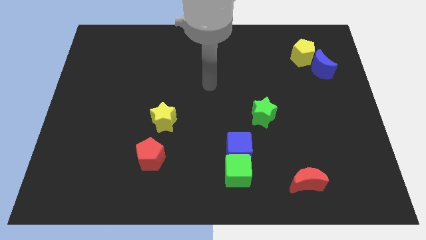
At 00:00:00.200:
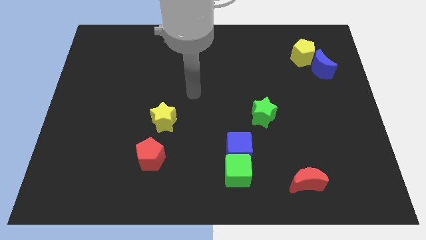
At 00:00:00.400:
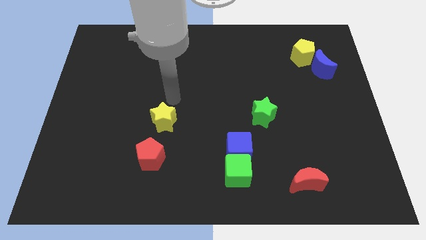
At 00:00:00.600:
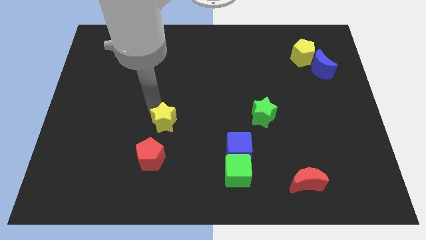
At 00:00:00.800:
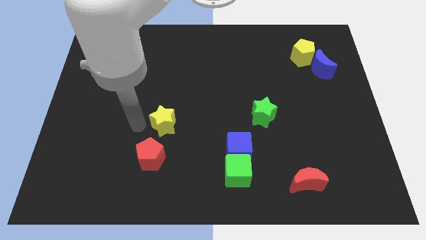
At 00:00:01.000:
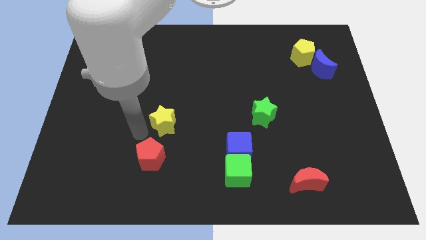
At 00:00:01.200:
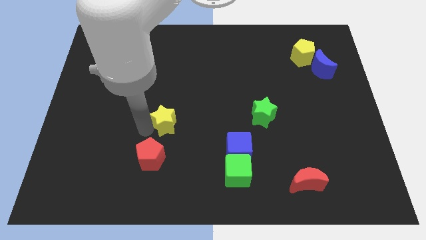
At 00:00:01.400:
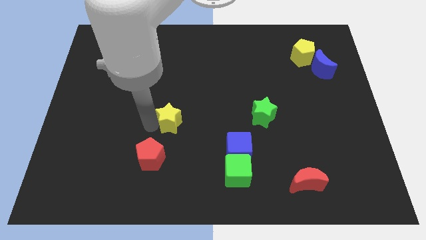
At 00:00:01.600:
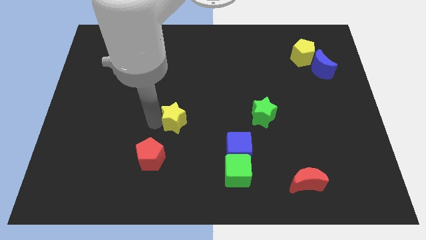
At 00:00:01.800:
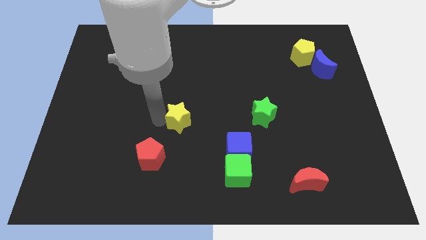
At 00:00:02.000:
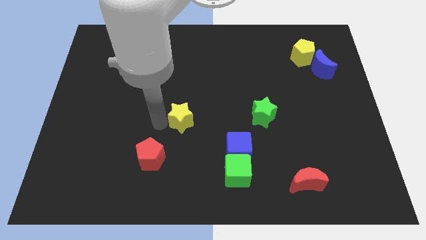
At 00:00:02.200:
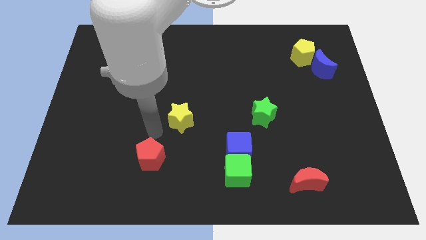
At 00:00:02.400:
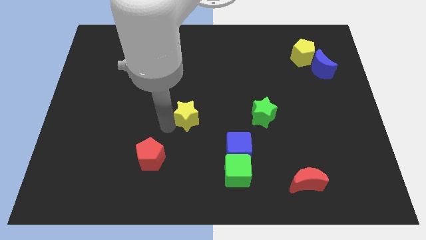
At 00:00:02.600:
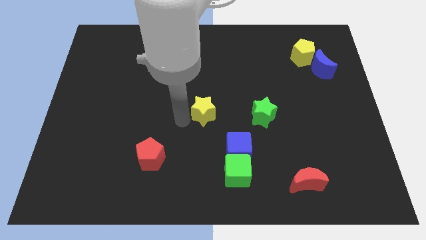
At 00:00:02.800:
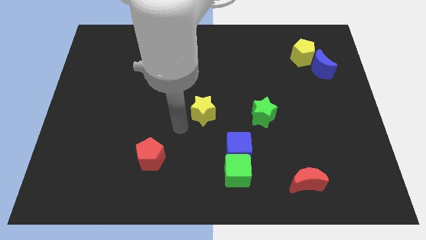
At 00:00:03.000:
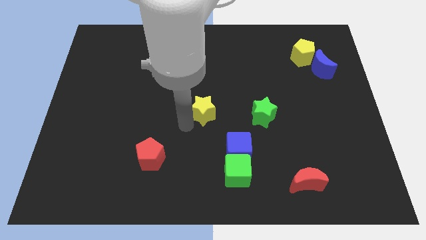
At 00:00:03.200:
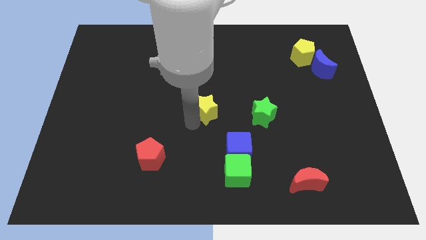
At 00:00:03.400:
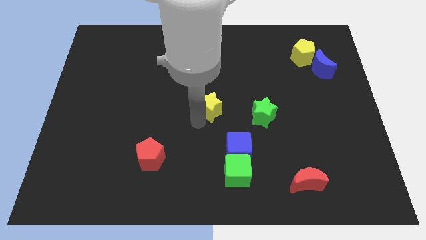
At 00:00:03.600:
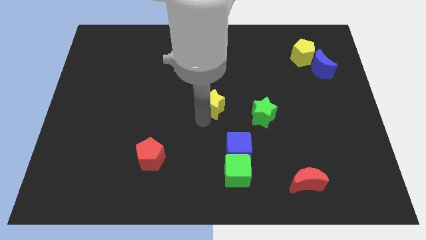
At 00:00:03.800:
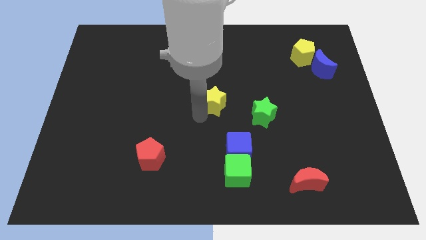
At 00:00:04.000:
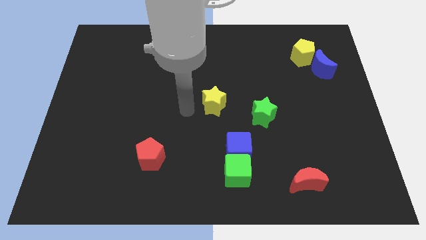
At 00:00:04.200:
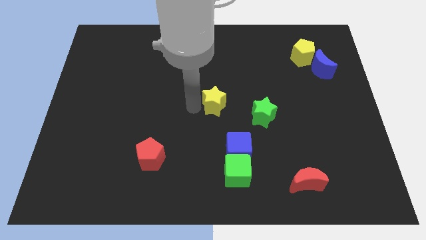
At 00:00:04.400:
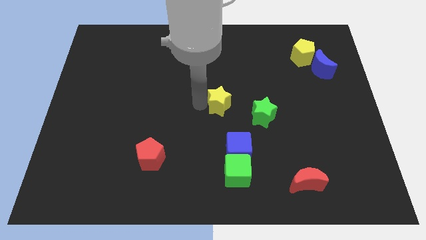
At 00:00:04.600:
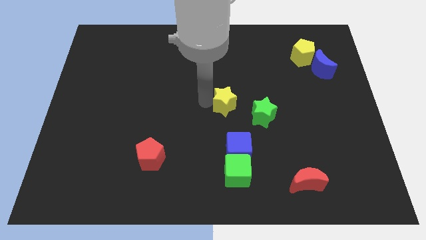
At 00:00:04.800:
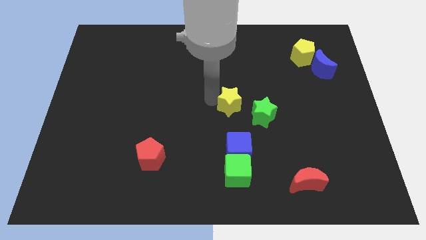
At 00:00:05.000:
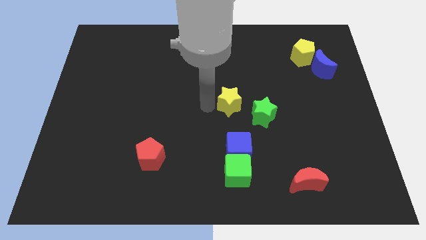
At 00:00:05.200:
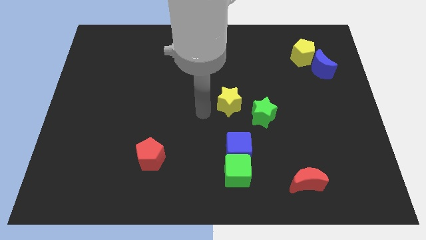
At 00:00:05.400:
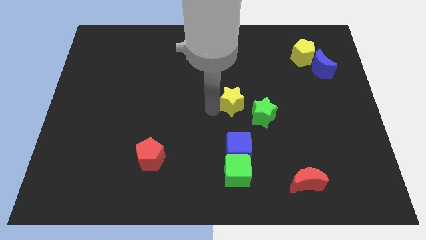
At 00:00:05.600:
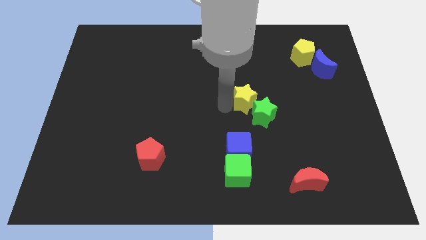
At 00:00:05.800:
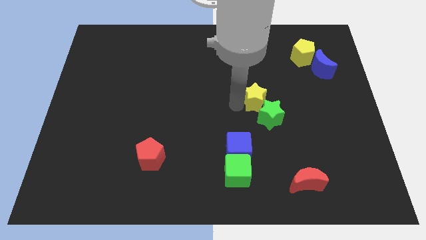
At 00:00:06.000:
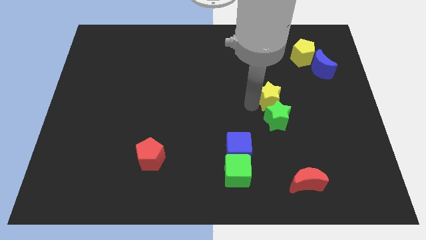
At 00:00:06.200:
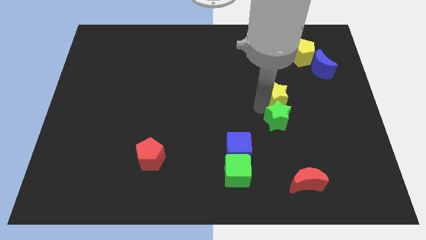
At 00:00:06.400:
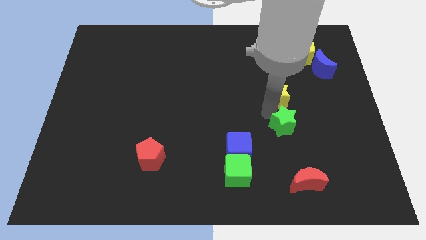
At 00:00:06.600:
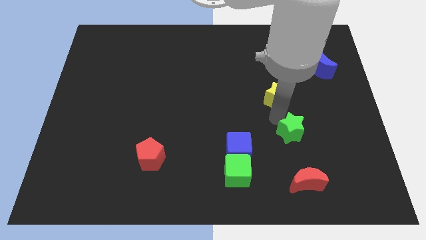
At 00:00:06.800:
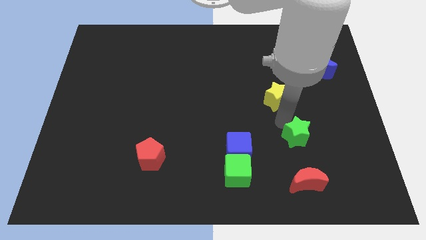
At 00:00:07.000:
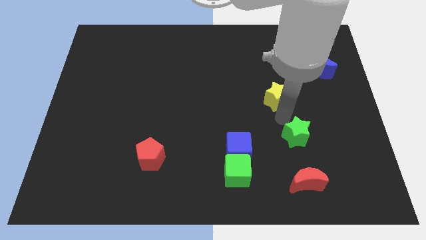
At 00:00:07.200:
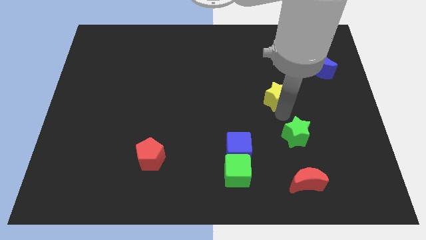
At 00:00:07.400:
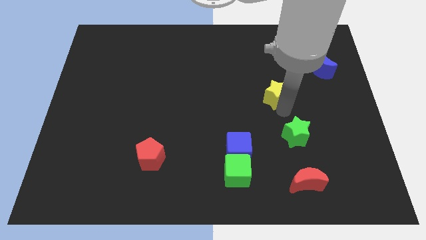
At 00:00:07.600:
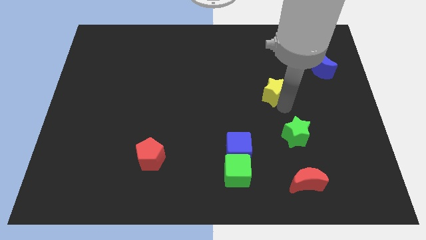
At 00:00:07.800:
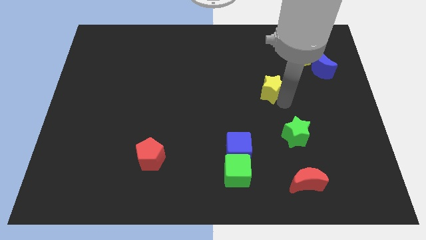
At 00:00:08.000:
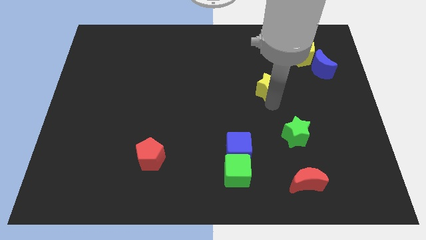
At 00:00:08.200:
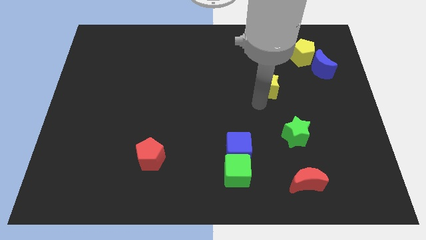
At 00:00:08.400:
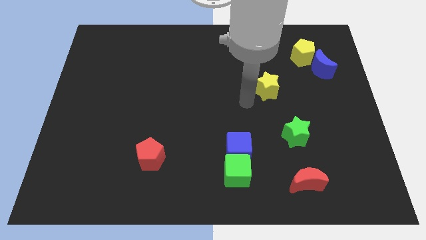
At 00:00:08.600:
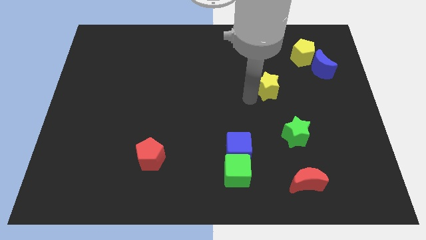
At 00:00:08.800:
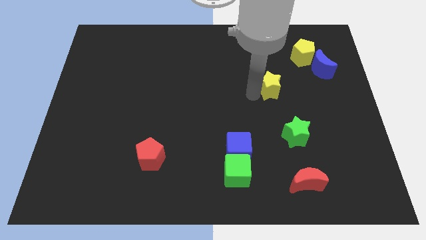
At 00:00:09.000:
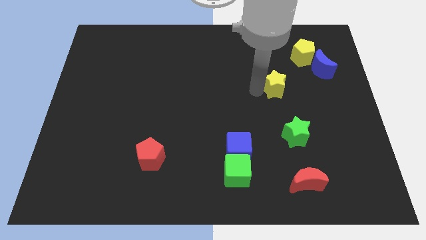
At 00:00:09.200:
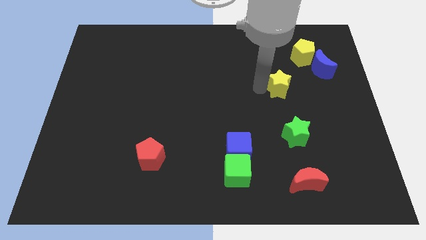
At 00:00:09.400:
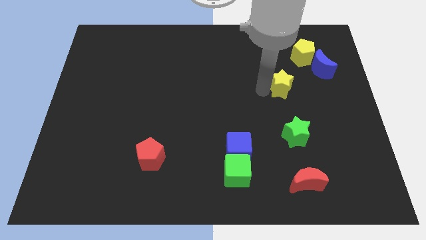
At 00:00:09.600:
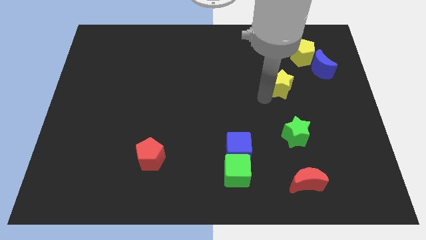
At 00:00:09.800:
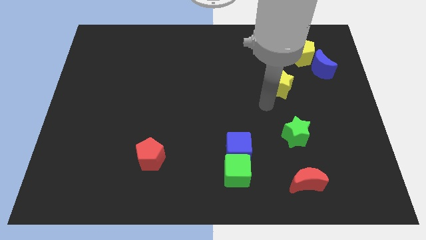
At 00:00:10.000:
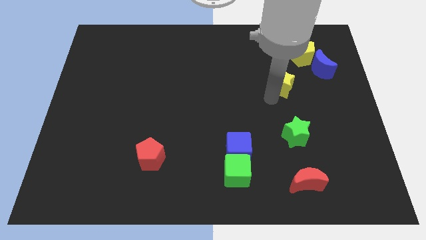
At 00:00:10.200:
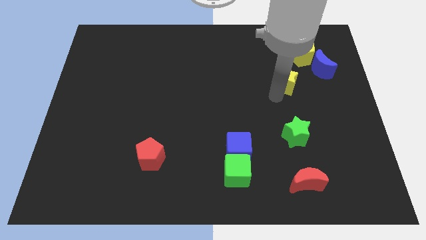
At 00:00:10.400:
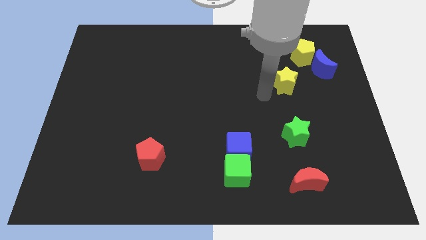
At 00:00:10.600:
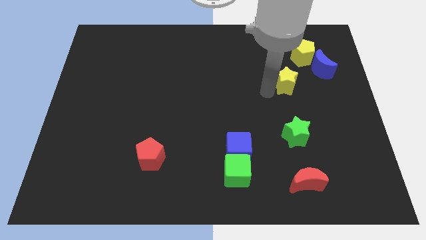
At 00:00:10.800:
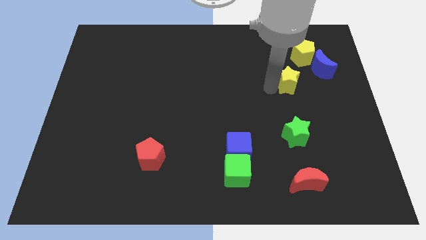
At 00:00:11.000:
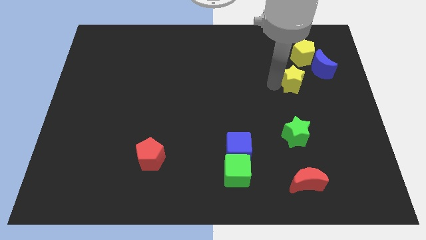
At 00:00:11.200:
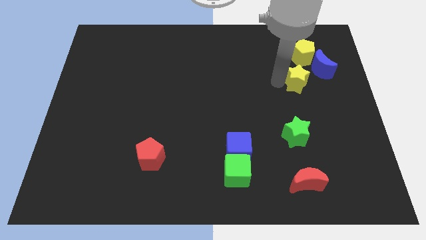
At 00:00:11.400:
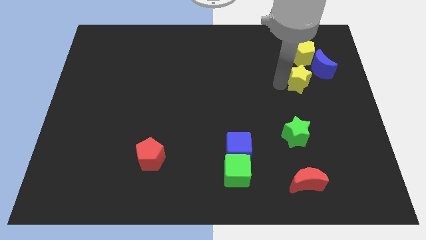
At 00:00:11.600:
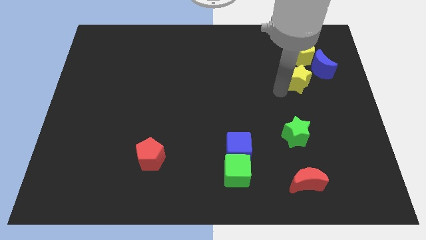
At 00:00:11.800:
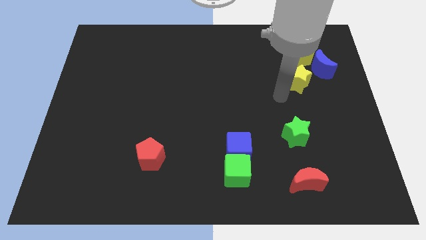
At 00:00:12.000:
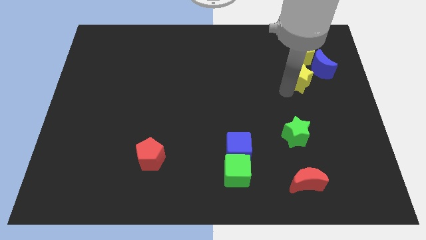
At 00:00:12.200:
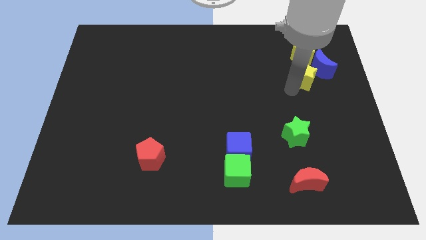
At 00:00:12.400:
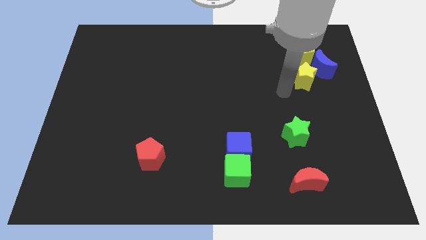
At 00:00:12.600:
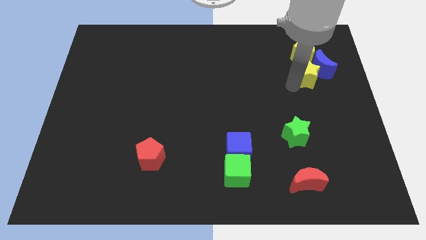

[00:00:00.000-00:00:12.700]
move the yellow star close to the blue moon

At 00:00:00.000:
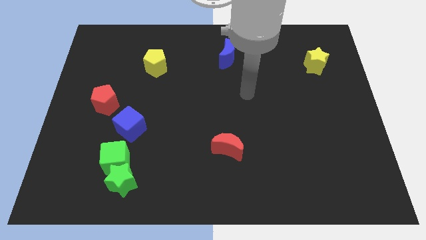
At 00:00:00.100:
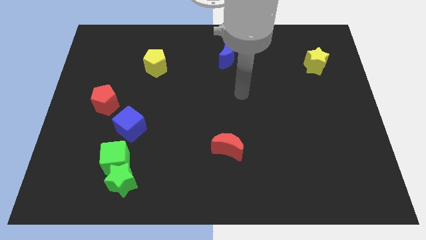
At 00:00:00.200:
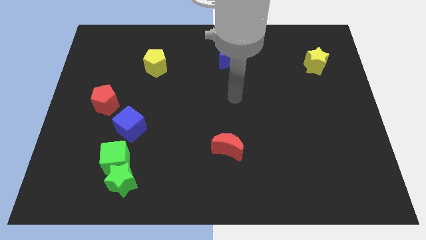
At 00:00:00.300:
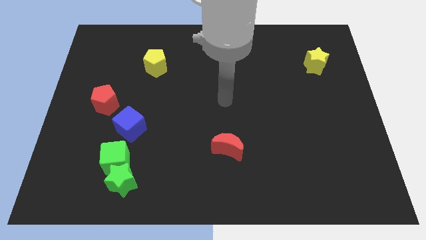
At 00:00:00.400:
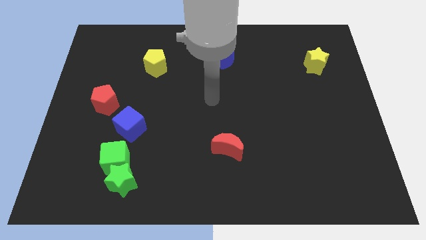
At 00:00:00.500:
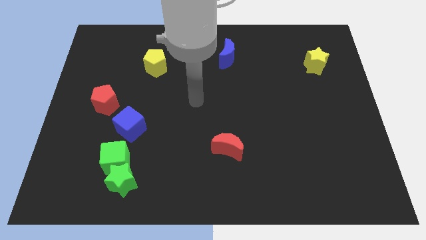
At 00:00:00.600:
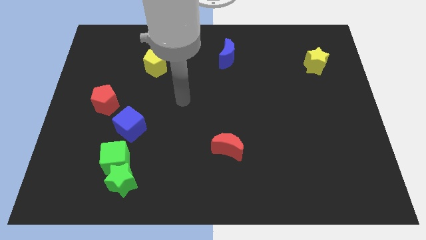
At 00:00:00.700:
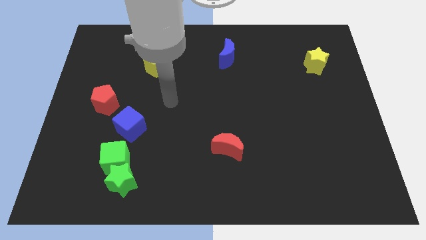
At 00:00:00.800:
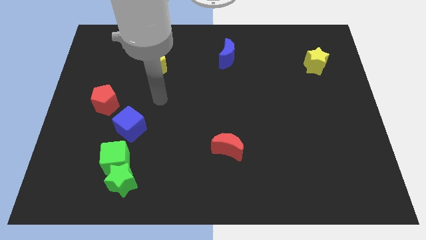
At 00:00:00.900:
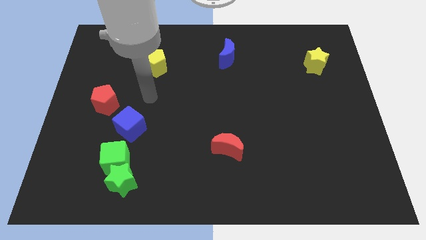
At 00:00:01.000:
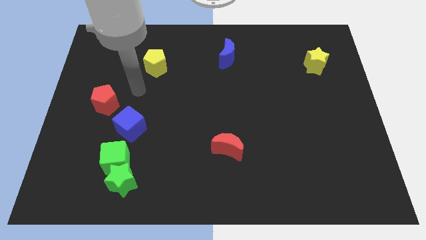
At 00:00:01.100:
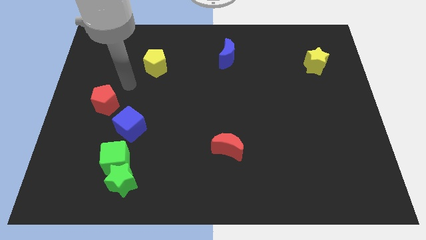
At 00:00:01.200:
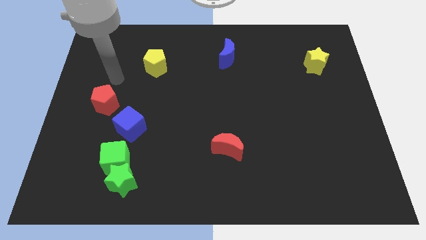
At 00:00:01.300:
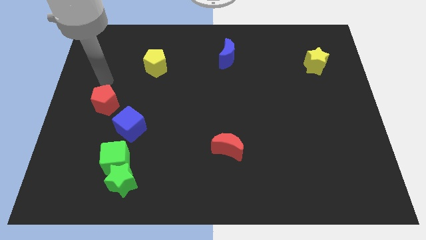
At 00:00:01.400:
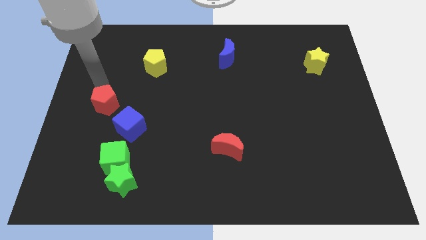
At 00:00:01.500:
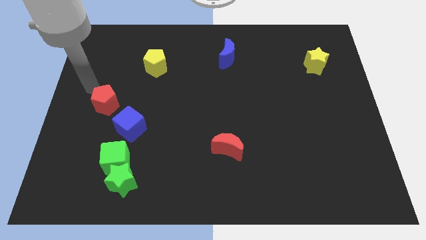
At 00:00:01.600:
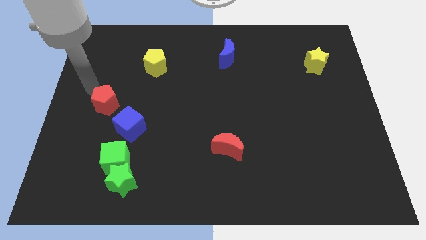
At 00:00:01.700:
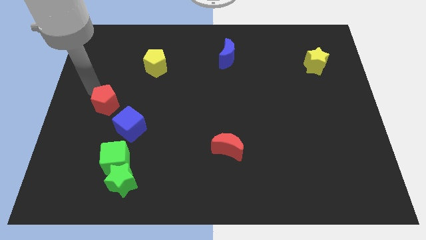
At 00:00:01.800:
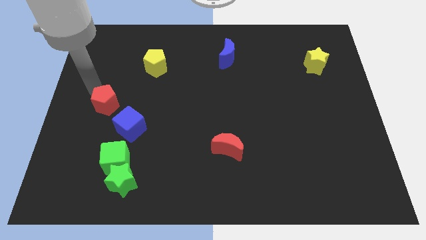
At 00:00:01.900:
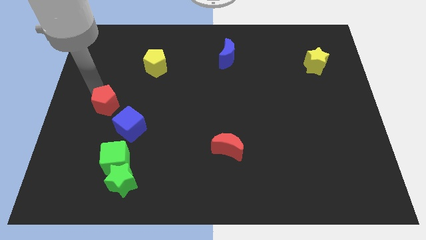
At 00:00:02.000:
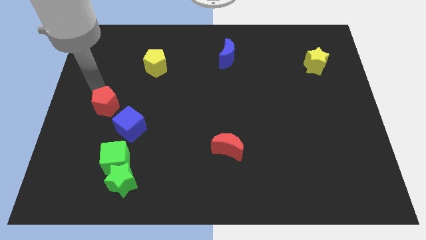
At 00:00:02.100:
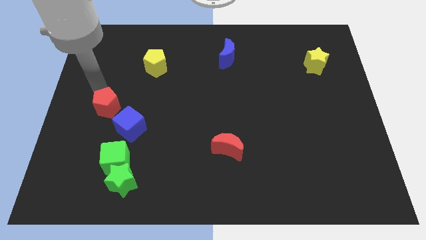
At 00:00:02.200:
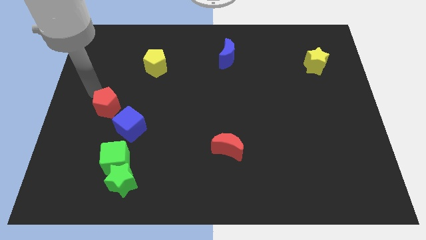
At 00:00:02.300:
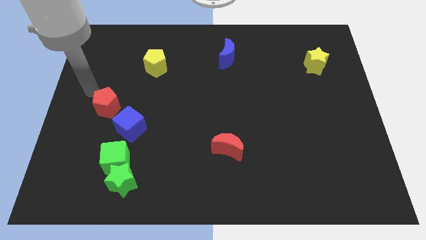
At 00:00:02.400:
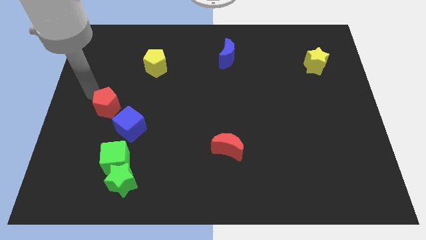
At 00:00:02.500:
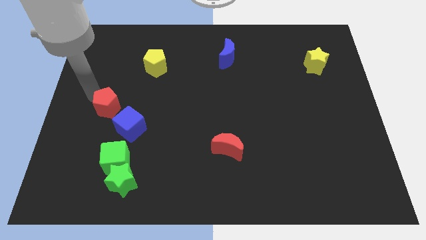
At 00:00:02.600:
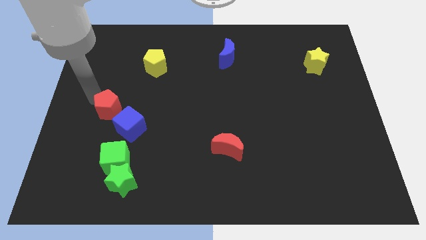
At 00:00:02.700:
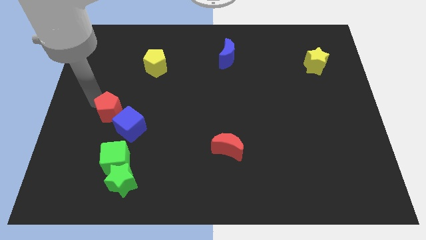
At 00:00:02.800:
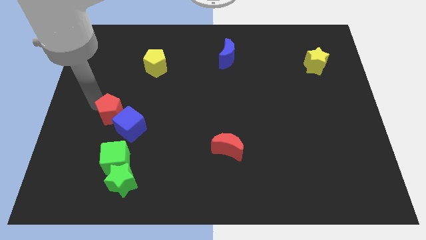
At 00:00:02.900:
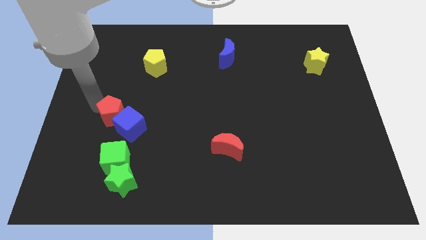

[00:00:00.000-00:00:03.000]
slide the red pentagon close to the blue cube
